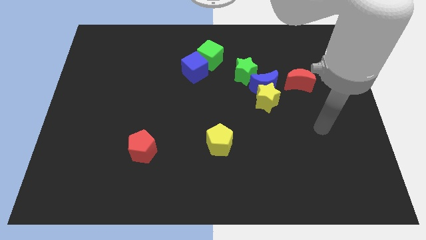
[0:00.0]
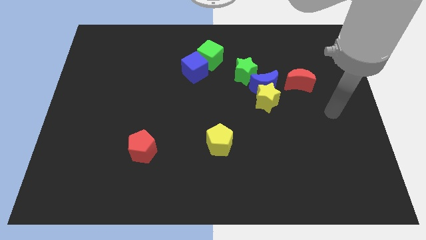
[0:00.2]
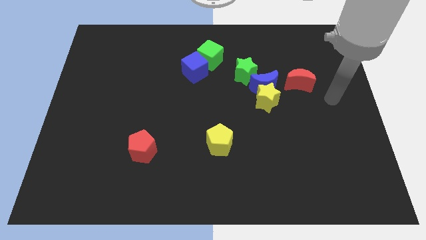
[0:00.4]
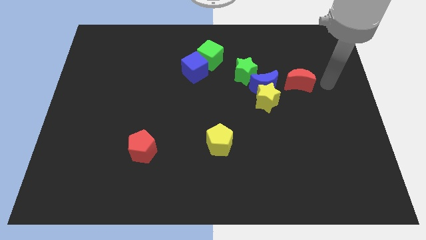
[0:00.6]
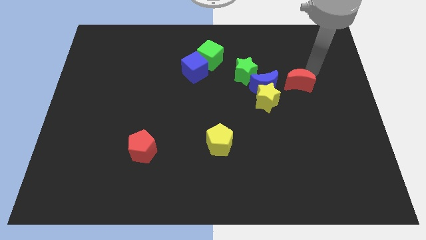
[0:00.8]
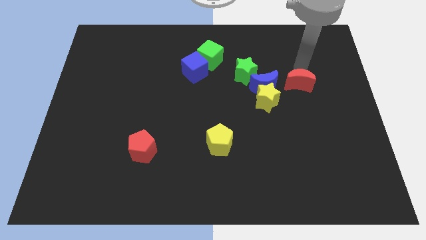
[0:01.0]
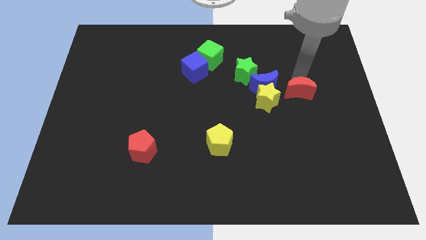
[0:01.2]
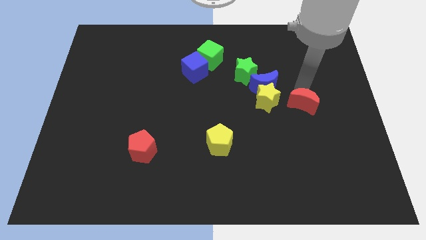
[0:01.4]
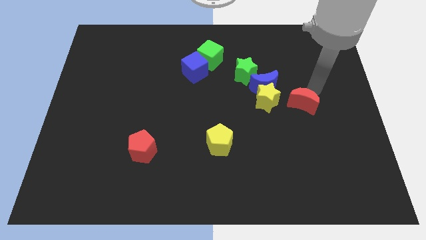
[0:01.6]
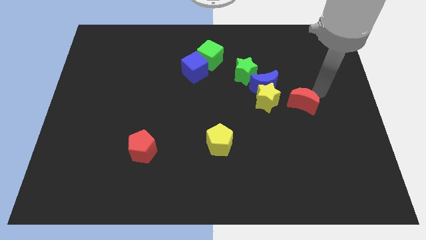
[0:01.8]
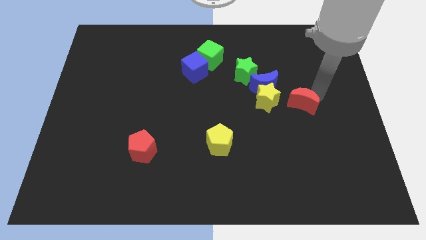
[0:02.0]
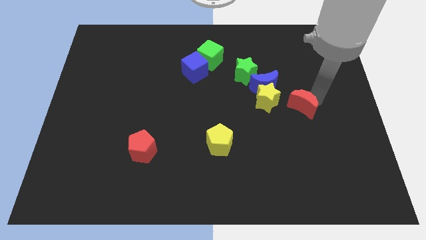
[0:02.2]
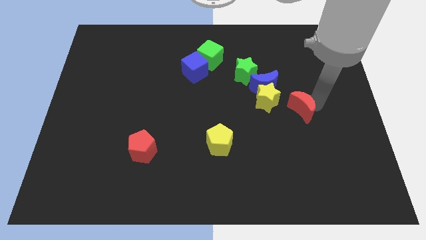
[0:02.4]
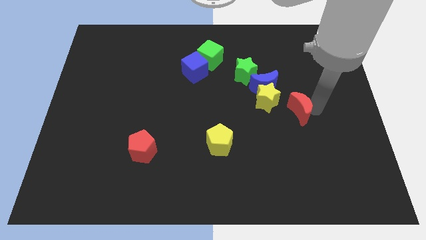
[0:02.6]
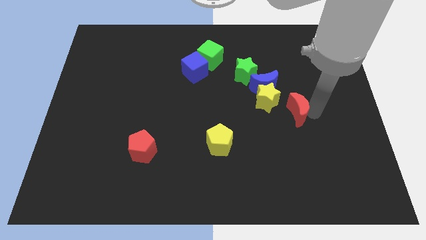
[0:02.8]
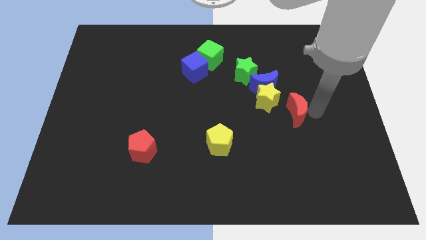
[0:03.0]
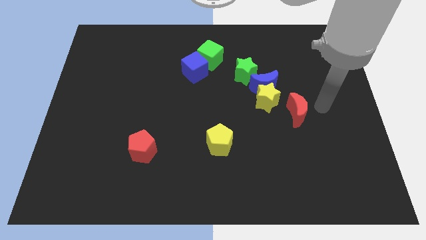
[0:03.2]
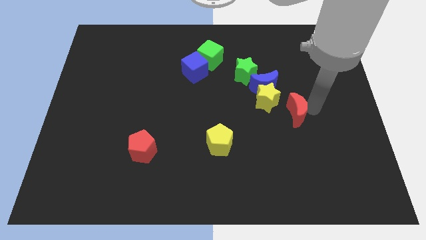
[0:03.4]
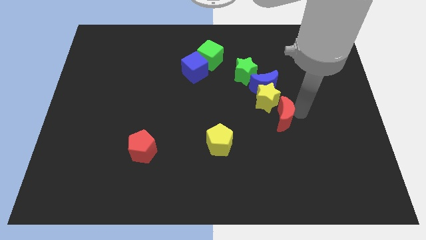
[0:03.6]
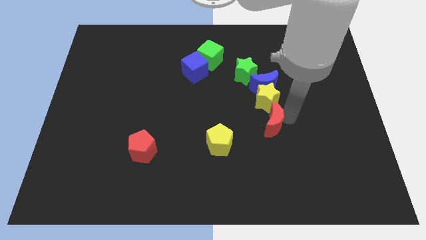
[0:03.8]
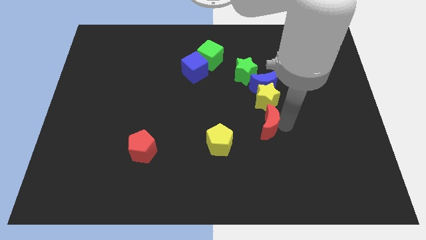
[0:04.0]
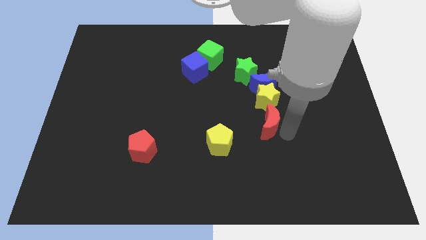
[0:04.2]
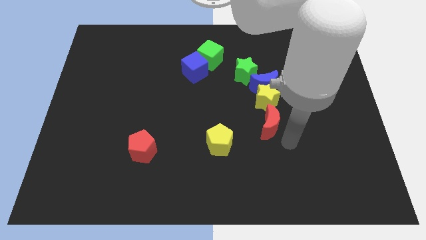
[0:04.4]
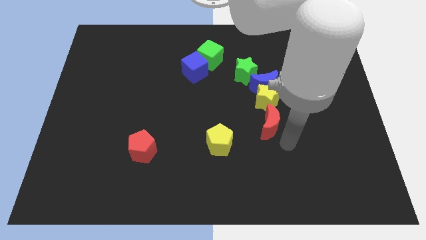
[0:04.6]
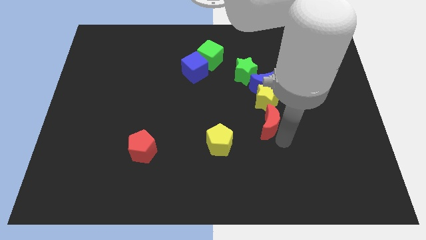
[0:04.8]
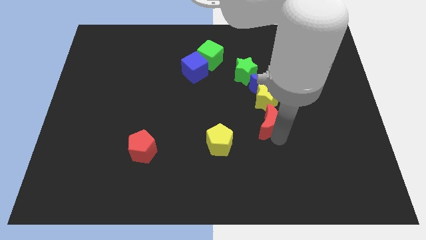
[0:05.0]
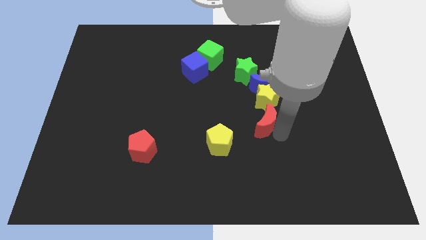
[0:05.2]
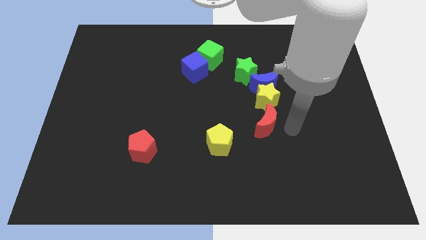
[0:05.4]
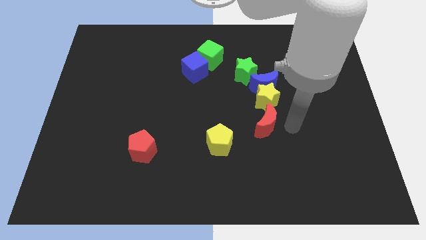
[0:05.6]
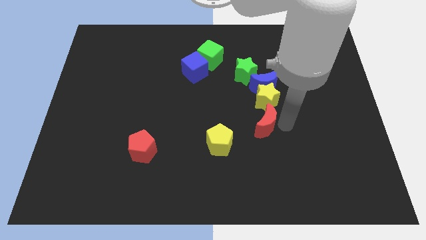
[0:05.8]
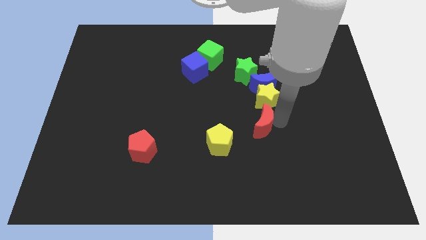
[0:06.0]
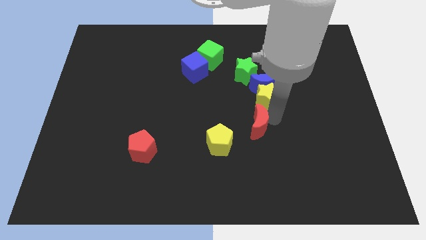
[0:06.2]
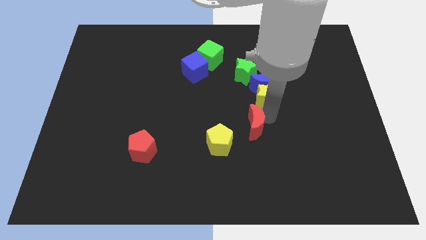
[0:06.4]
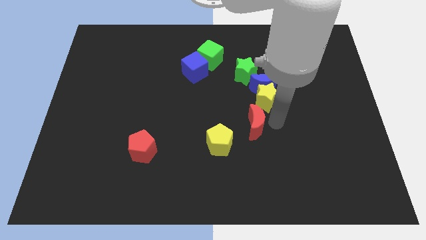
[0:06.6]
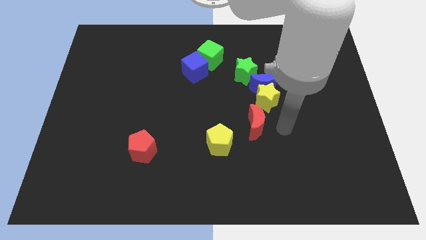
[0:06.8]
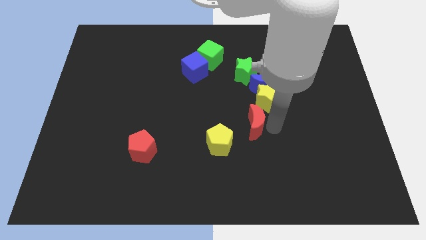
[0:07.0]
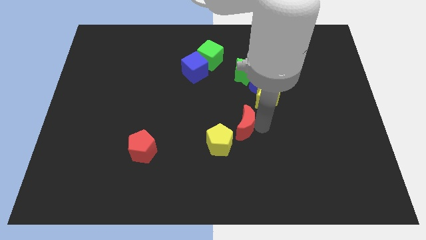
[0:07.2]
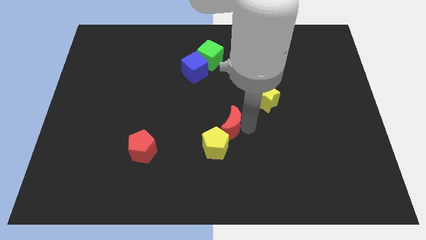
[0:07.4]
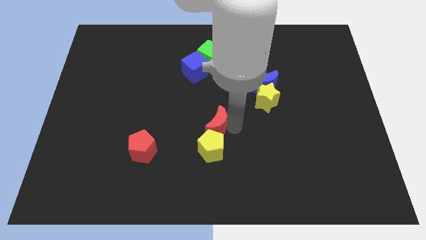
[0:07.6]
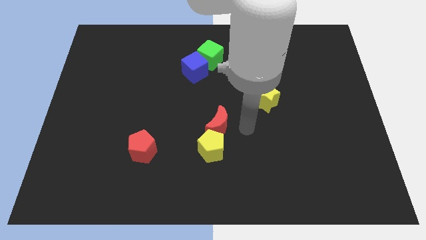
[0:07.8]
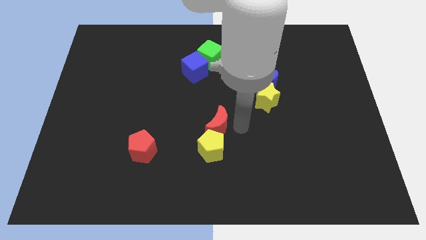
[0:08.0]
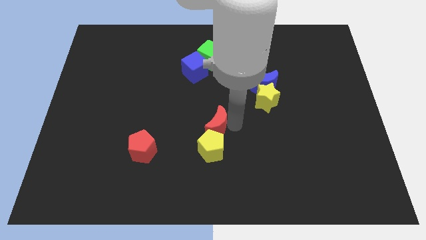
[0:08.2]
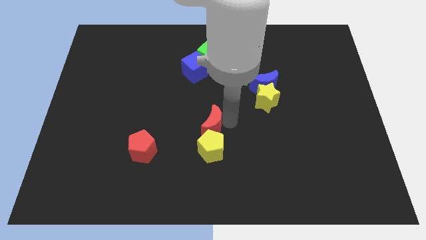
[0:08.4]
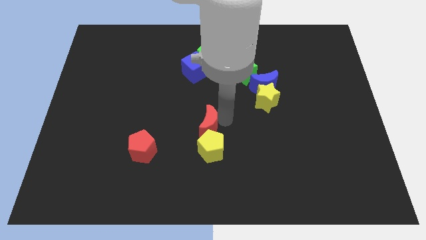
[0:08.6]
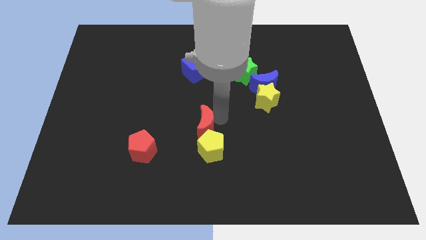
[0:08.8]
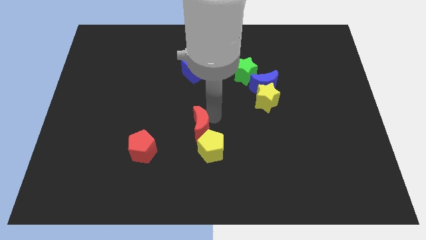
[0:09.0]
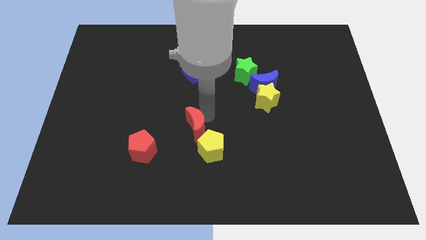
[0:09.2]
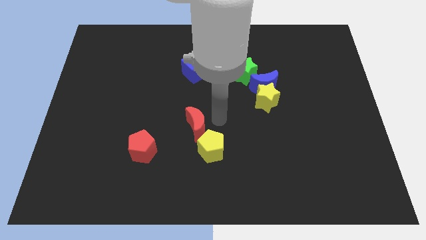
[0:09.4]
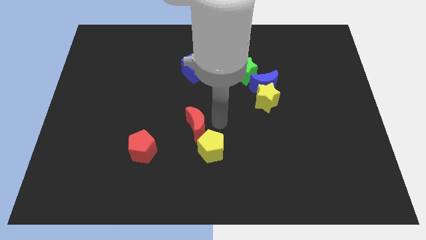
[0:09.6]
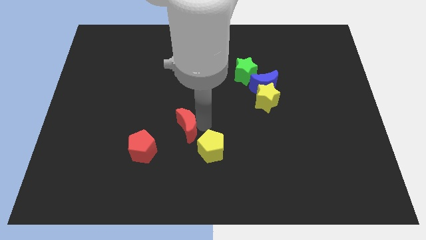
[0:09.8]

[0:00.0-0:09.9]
put the red moon diagonally up and to the right of the red pentagon

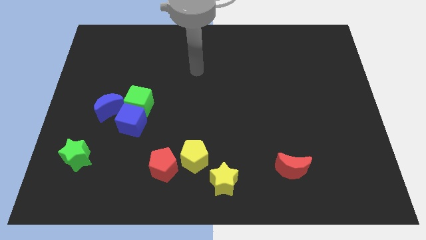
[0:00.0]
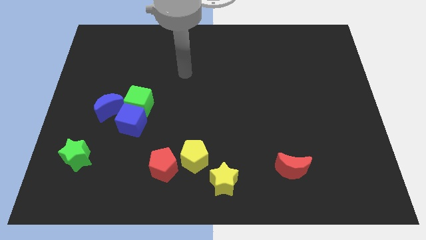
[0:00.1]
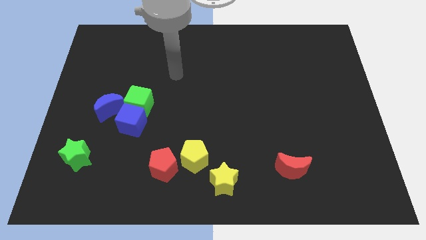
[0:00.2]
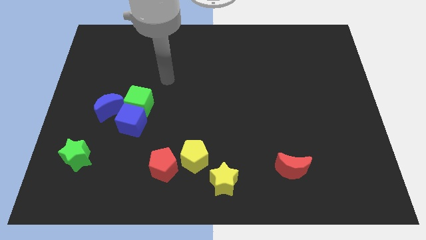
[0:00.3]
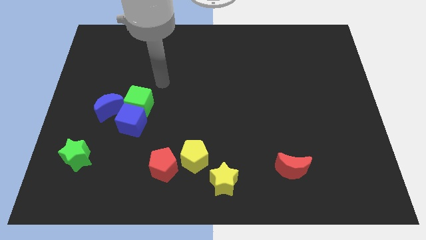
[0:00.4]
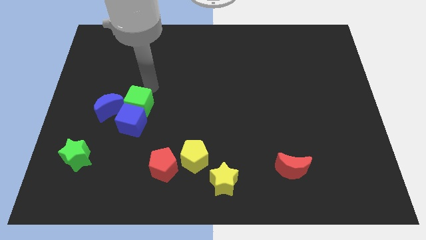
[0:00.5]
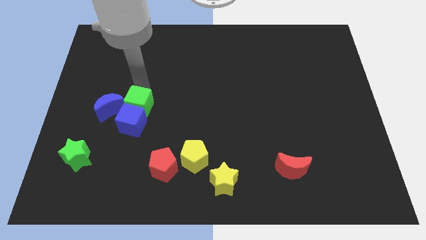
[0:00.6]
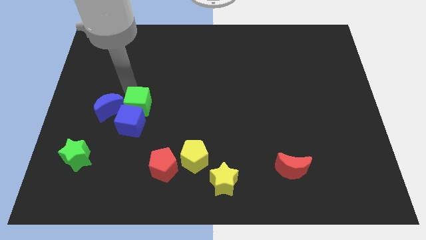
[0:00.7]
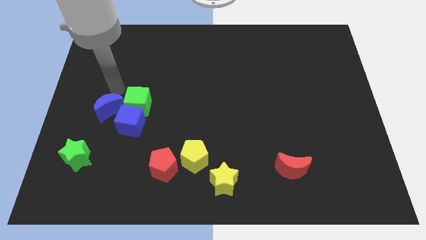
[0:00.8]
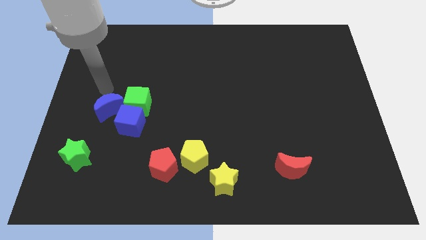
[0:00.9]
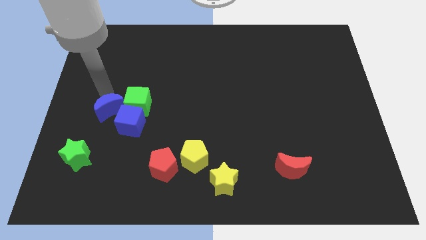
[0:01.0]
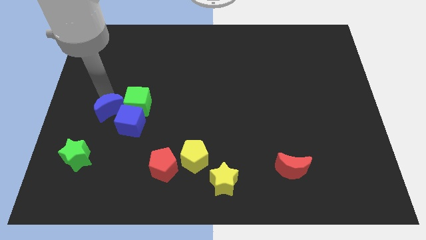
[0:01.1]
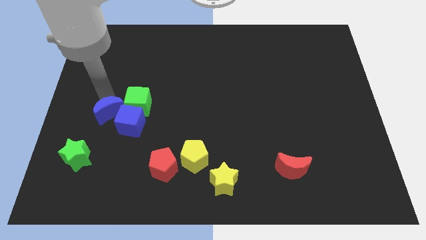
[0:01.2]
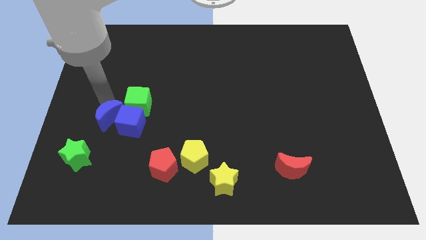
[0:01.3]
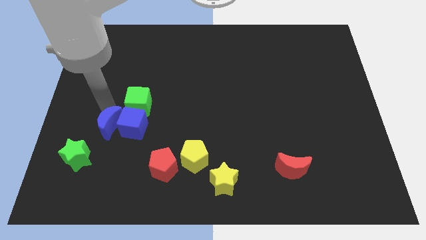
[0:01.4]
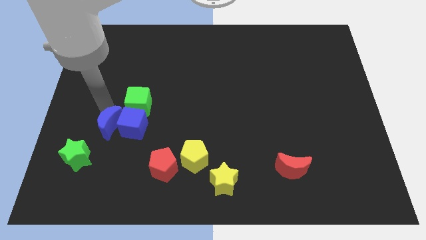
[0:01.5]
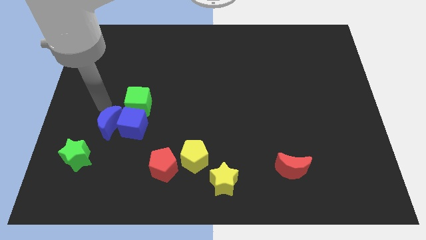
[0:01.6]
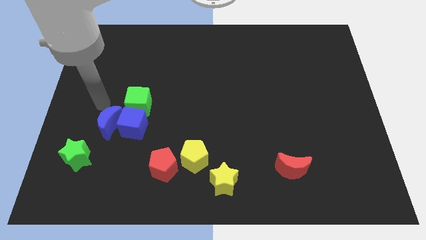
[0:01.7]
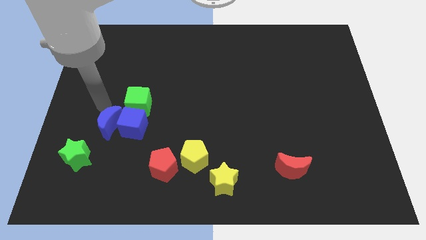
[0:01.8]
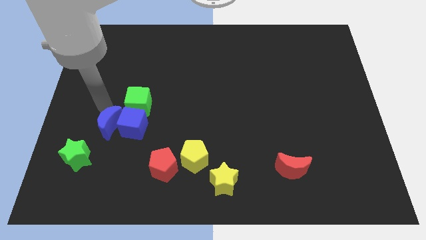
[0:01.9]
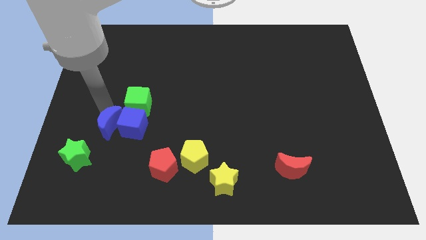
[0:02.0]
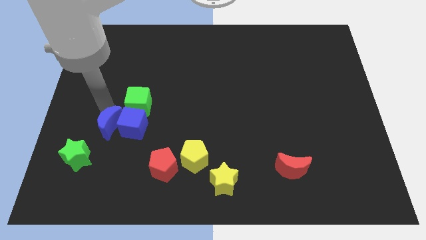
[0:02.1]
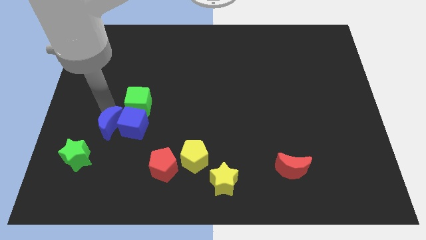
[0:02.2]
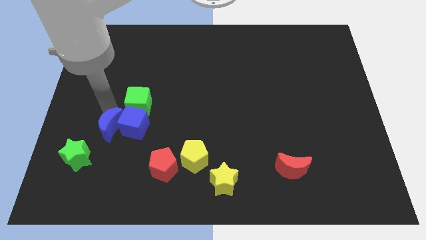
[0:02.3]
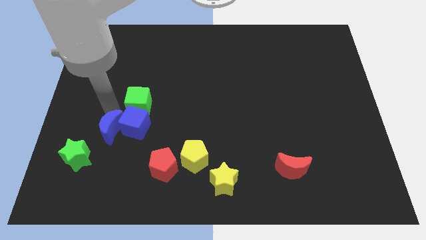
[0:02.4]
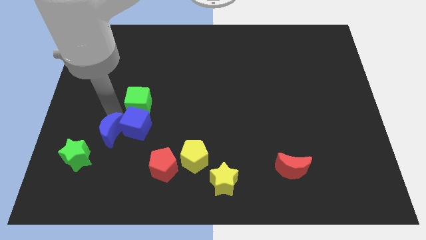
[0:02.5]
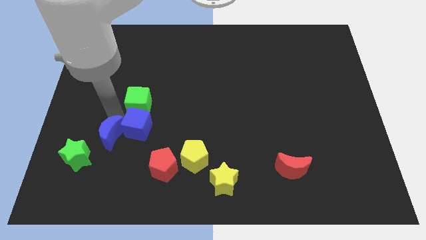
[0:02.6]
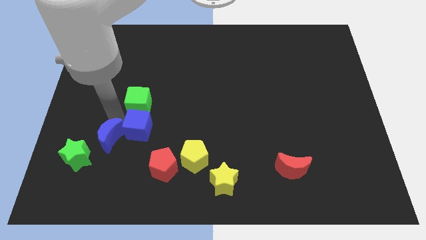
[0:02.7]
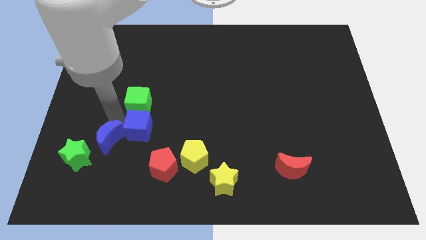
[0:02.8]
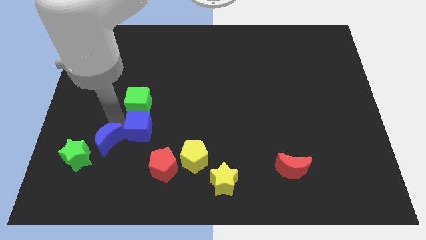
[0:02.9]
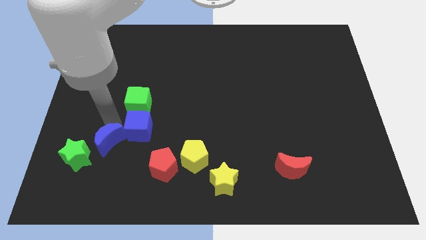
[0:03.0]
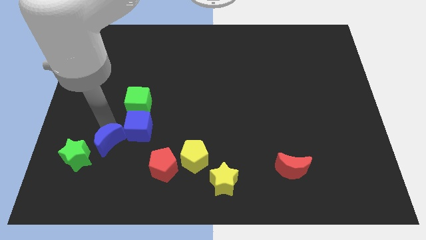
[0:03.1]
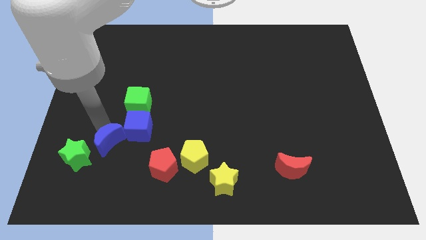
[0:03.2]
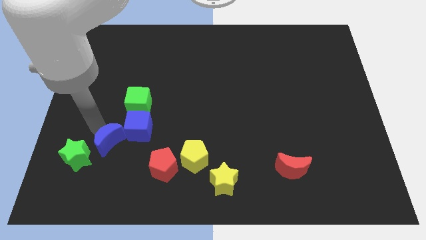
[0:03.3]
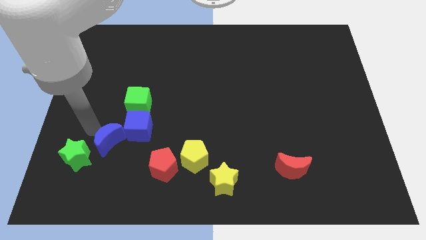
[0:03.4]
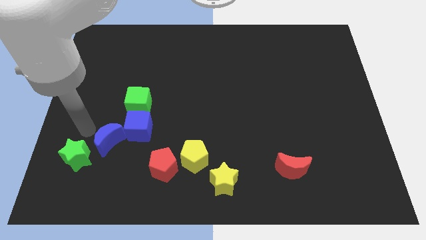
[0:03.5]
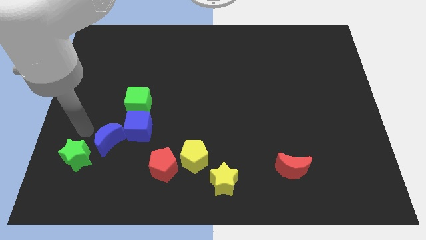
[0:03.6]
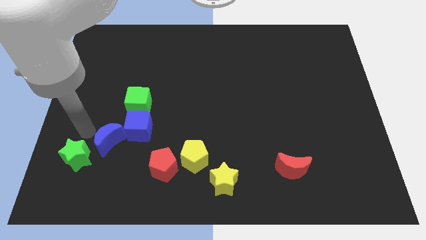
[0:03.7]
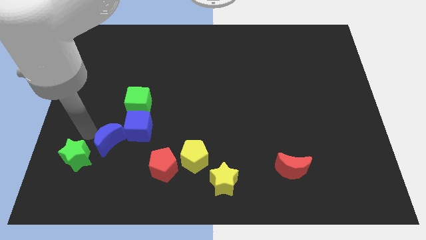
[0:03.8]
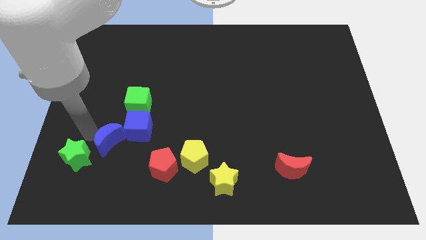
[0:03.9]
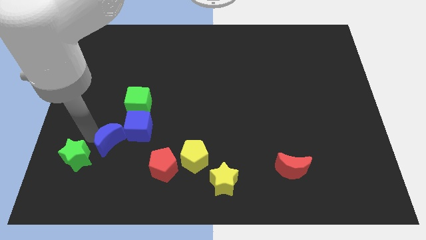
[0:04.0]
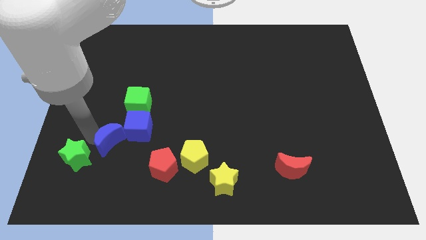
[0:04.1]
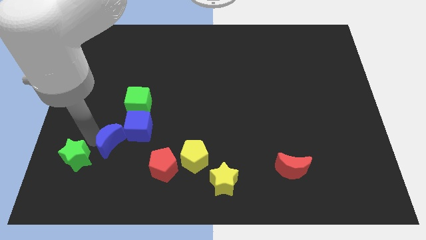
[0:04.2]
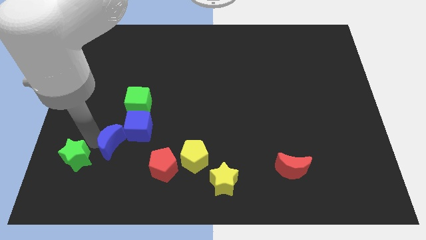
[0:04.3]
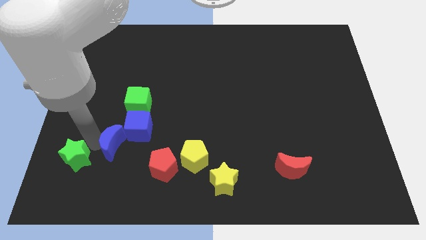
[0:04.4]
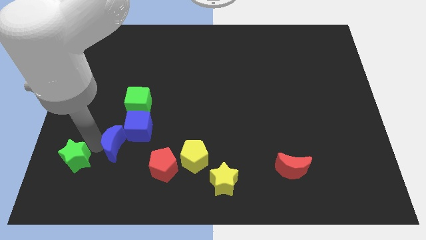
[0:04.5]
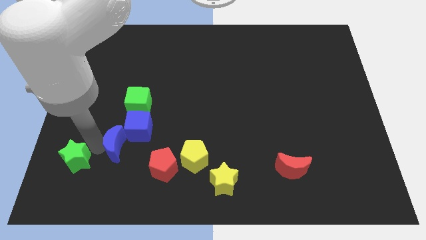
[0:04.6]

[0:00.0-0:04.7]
move the blue moon below the blue cube
